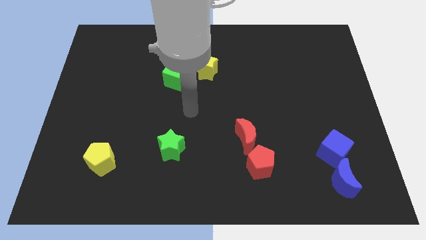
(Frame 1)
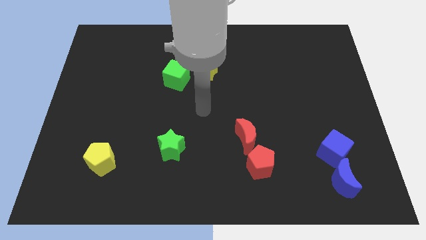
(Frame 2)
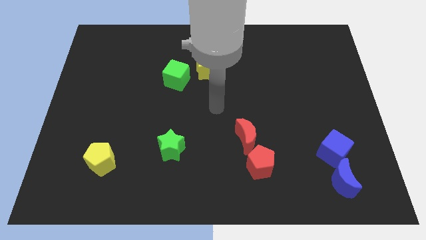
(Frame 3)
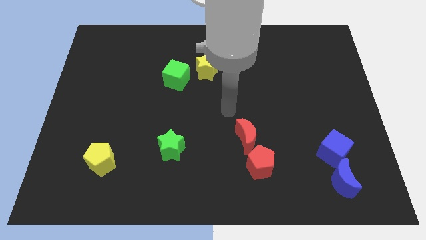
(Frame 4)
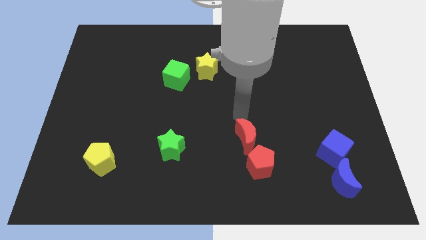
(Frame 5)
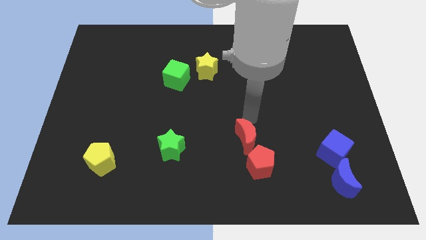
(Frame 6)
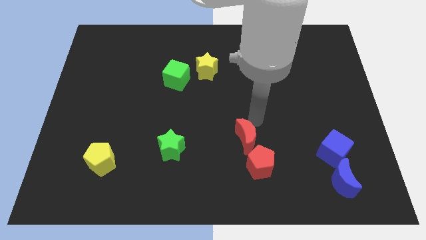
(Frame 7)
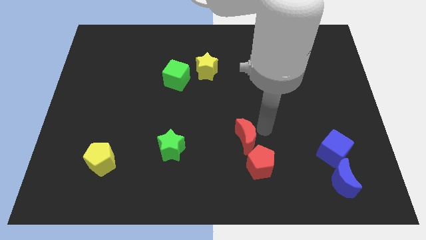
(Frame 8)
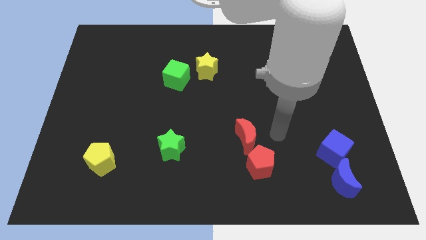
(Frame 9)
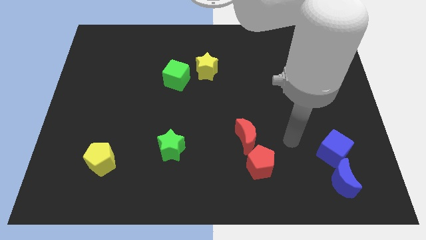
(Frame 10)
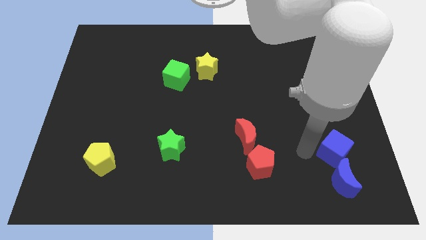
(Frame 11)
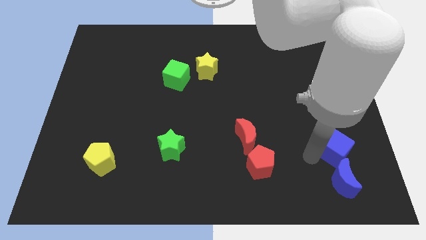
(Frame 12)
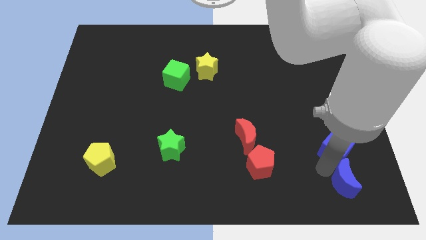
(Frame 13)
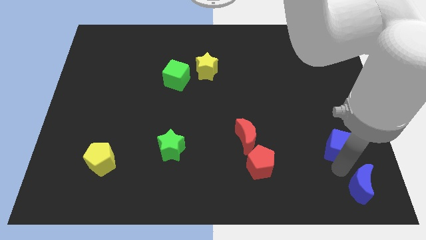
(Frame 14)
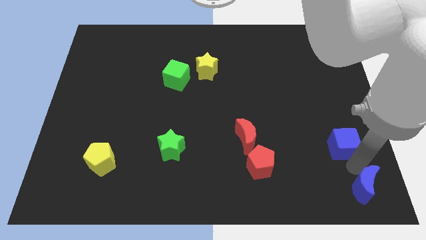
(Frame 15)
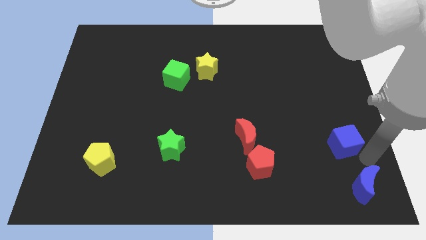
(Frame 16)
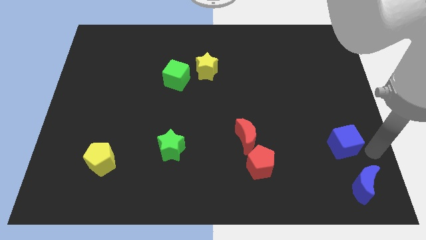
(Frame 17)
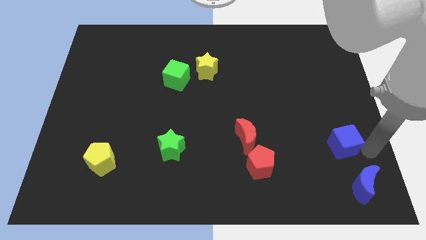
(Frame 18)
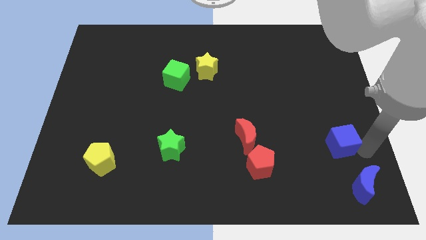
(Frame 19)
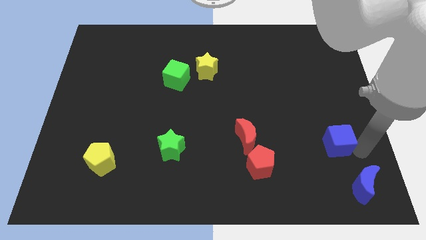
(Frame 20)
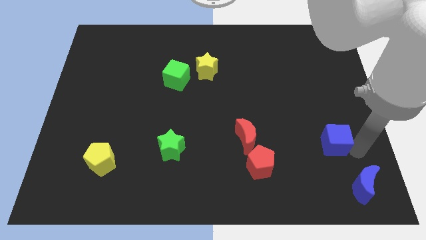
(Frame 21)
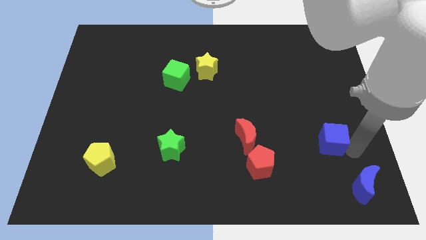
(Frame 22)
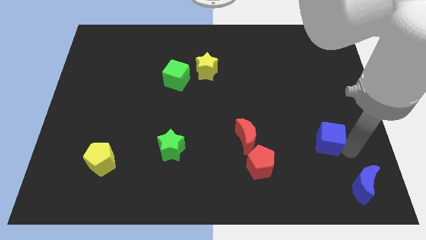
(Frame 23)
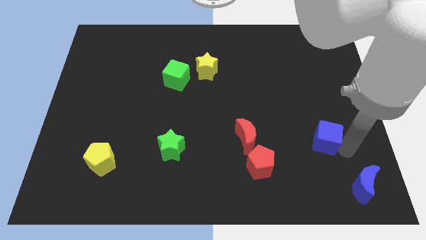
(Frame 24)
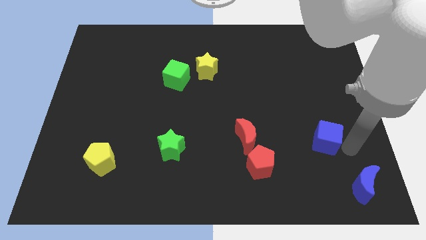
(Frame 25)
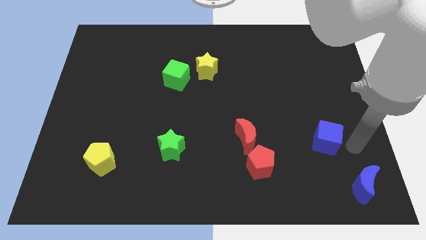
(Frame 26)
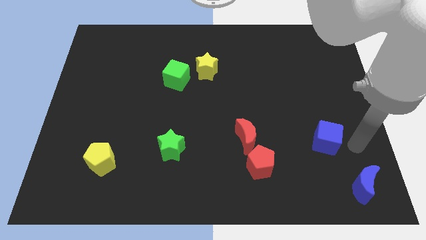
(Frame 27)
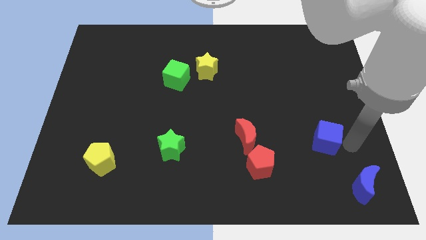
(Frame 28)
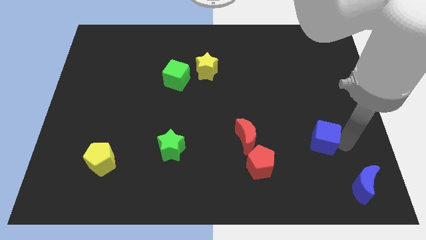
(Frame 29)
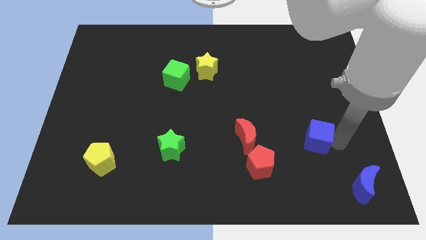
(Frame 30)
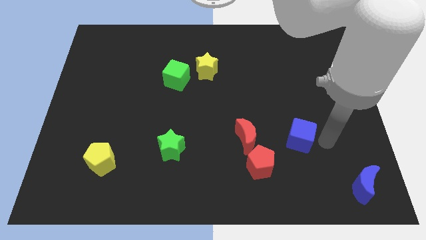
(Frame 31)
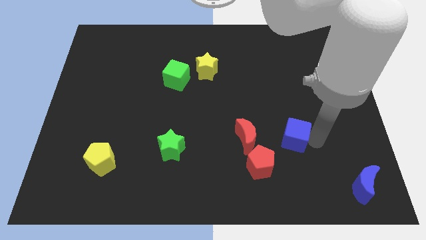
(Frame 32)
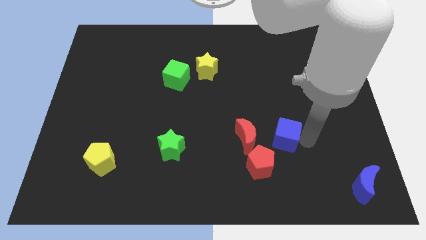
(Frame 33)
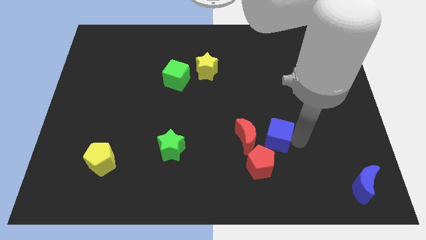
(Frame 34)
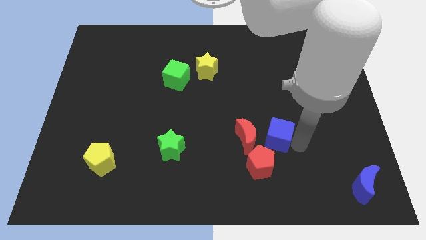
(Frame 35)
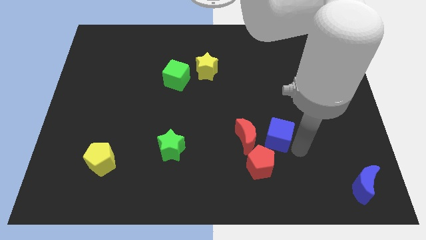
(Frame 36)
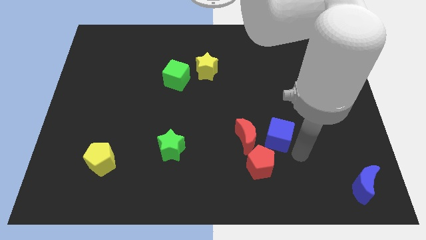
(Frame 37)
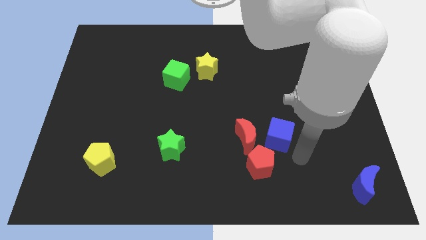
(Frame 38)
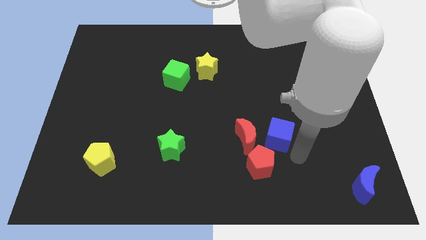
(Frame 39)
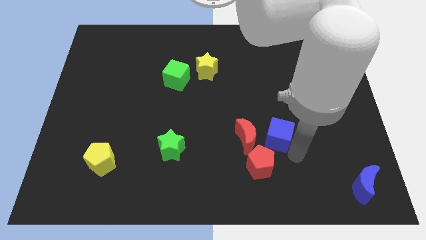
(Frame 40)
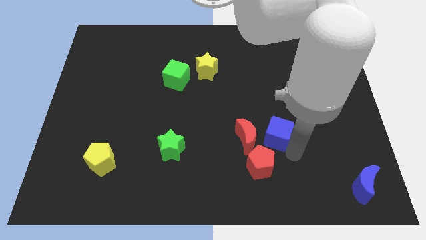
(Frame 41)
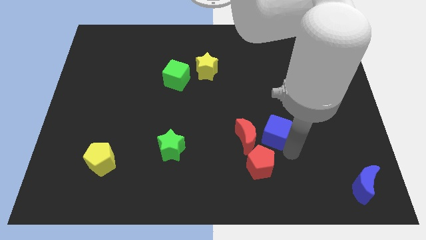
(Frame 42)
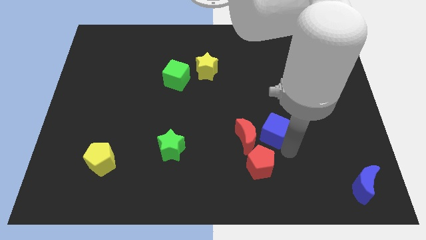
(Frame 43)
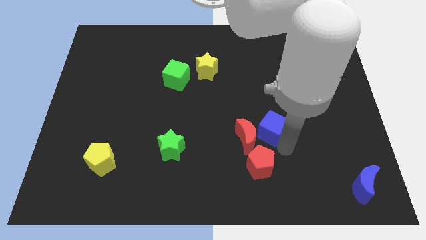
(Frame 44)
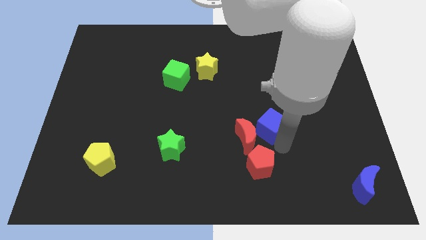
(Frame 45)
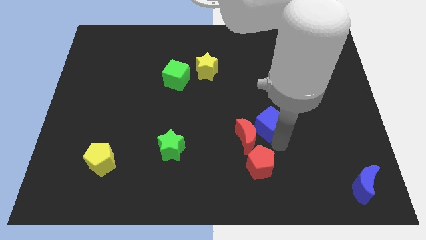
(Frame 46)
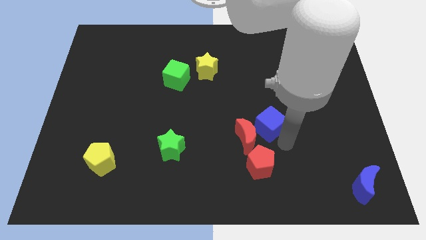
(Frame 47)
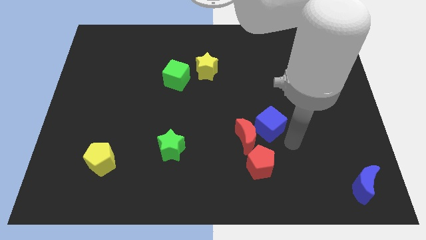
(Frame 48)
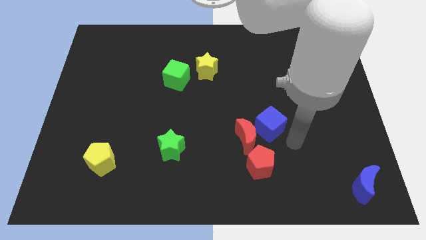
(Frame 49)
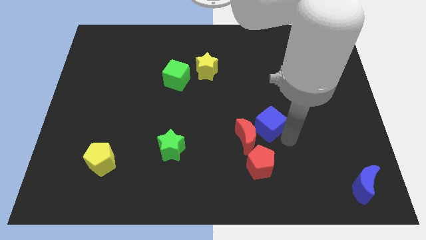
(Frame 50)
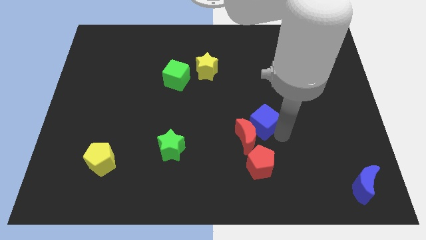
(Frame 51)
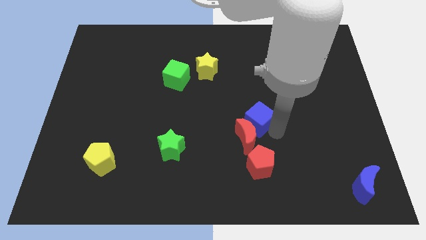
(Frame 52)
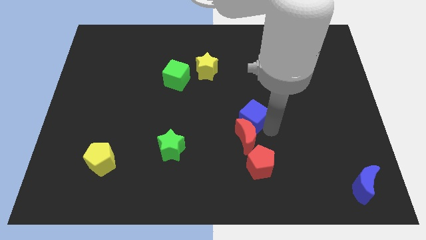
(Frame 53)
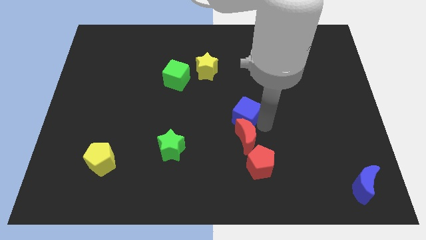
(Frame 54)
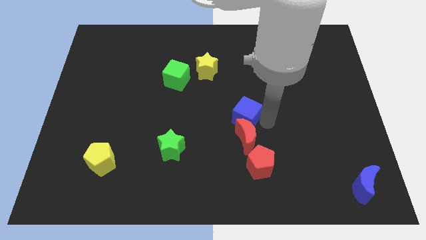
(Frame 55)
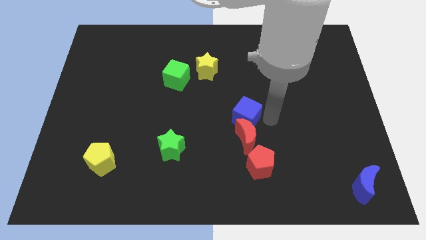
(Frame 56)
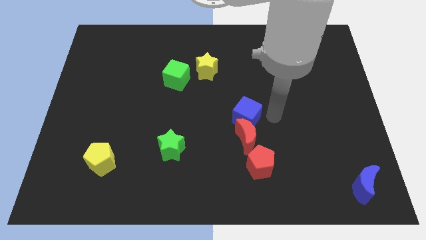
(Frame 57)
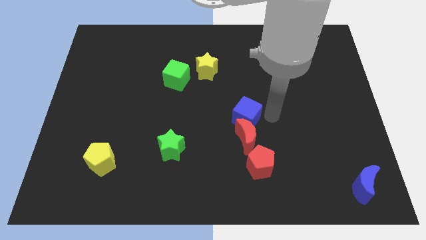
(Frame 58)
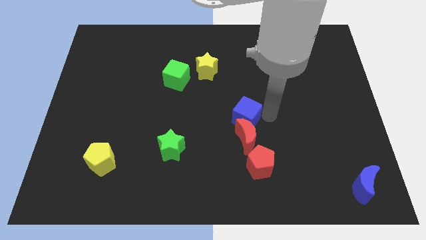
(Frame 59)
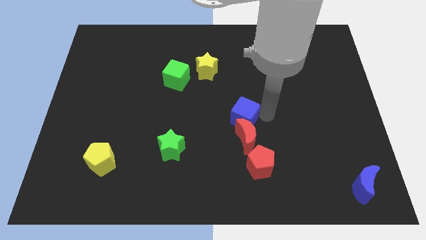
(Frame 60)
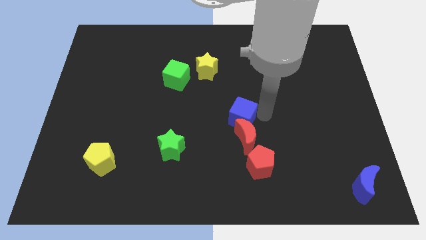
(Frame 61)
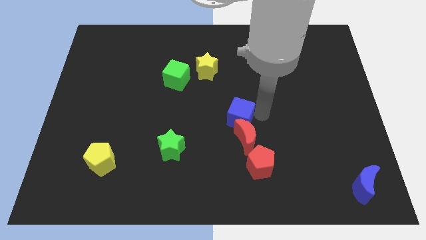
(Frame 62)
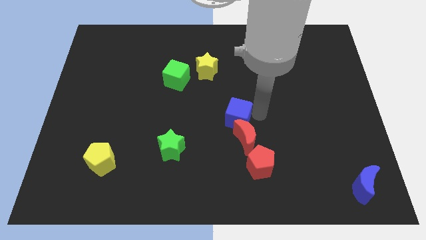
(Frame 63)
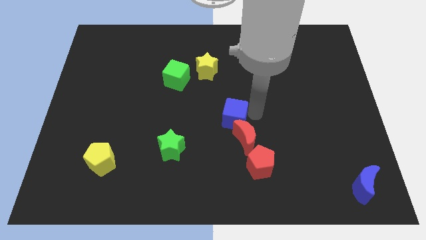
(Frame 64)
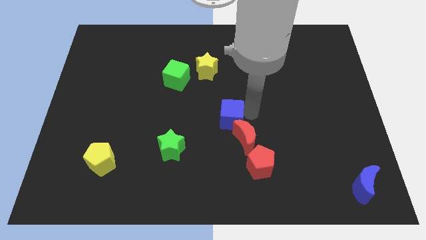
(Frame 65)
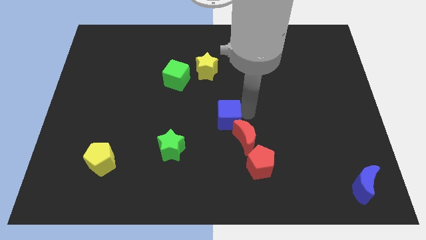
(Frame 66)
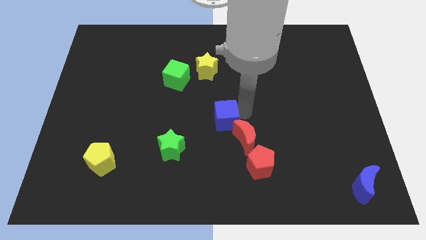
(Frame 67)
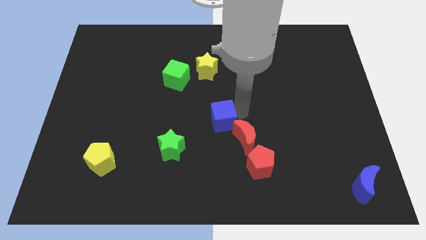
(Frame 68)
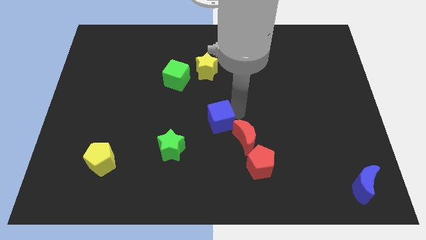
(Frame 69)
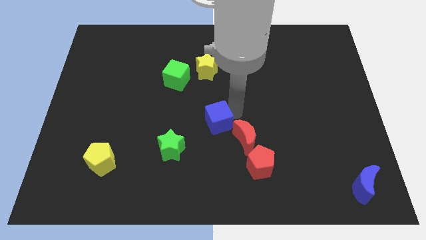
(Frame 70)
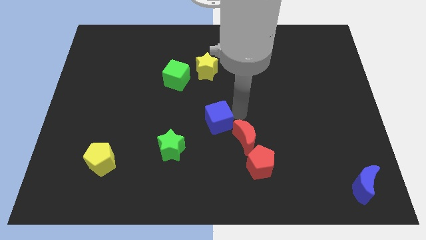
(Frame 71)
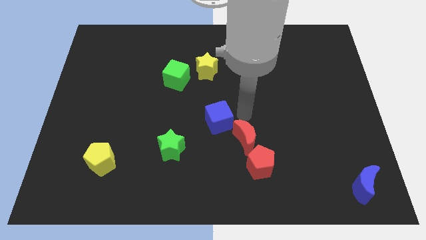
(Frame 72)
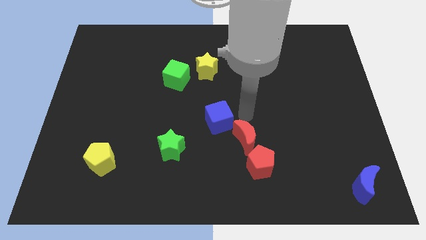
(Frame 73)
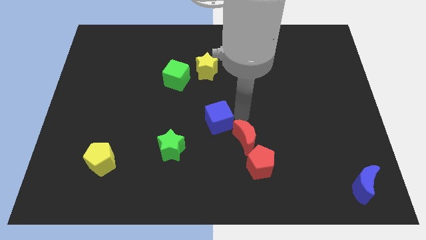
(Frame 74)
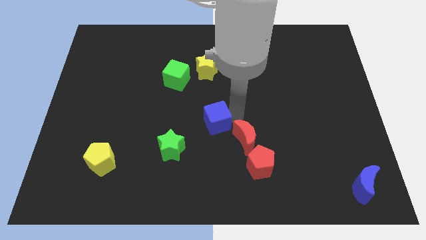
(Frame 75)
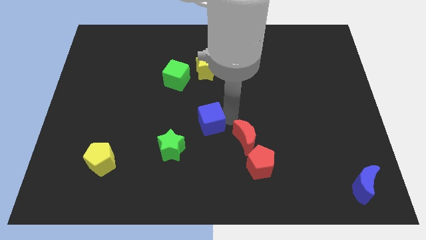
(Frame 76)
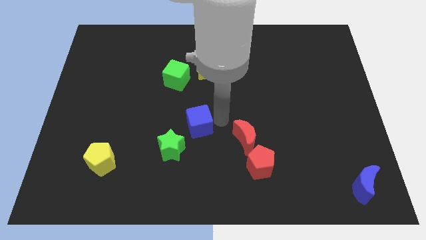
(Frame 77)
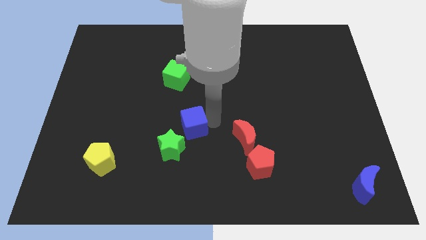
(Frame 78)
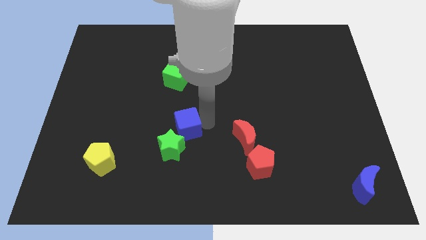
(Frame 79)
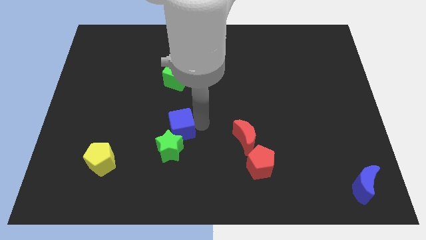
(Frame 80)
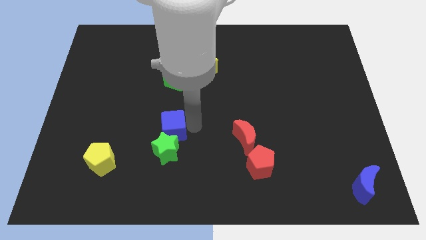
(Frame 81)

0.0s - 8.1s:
push the blue cube diagonally up and to the left of the green star
